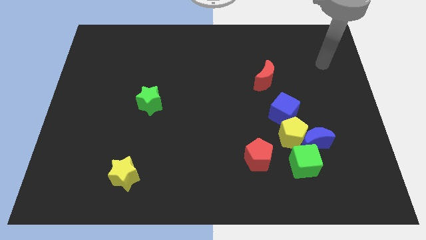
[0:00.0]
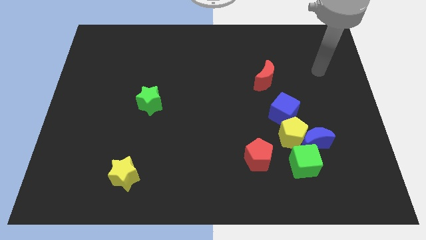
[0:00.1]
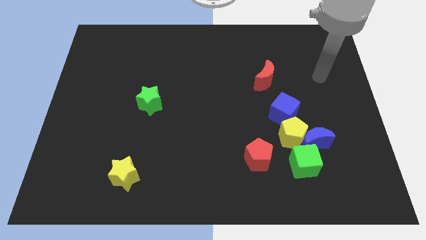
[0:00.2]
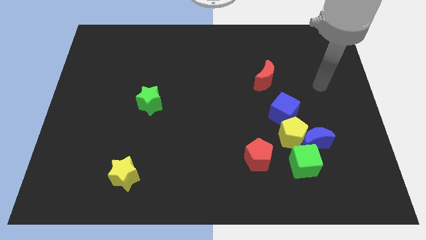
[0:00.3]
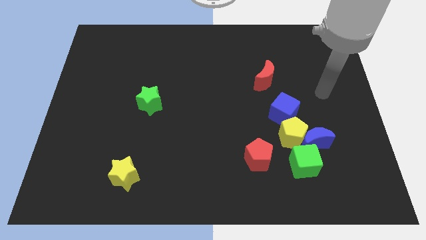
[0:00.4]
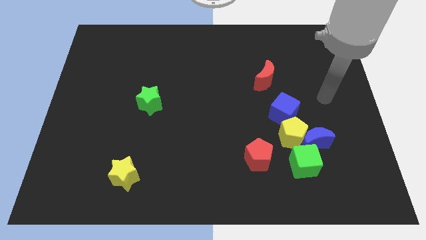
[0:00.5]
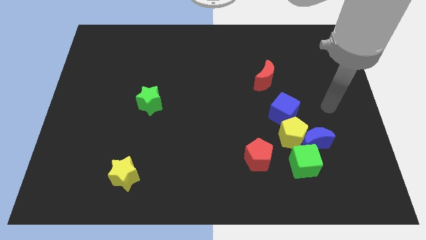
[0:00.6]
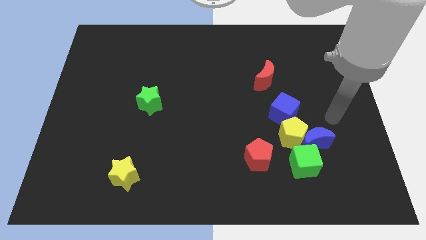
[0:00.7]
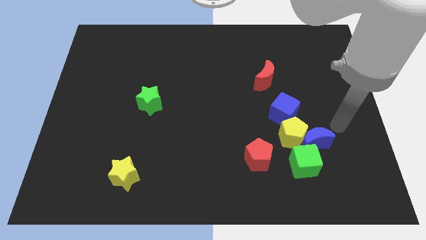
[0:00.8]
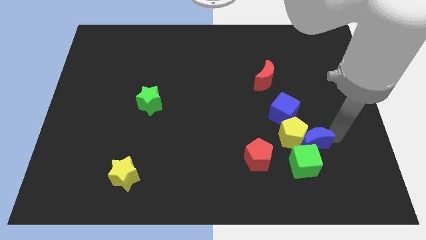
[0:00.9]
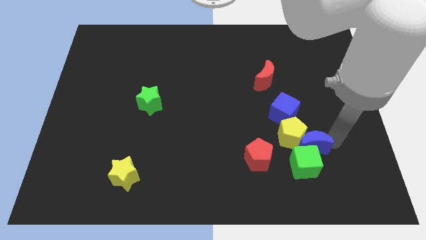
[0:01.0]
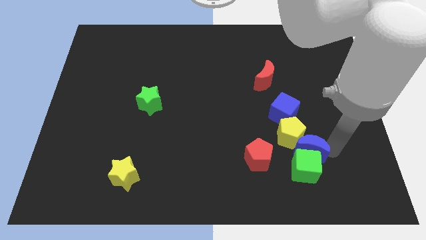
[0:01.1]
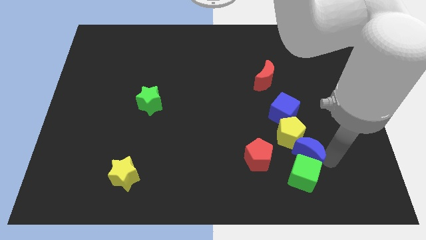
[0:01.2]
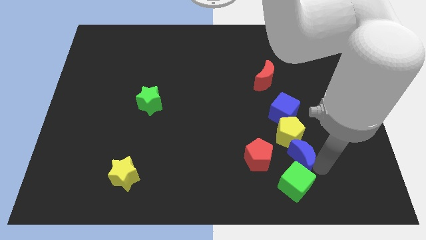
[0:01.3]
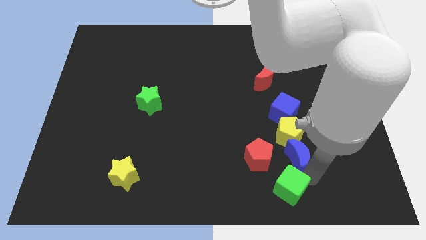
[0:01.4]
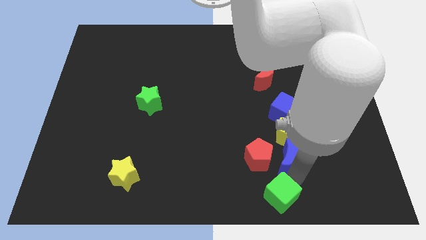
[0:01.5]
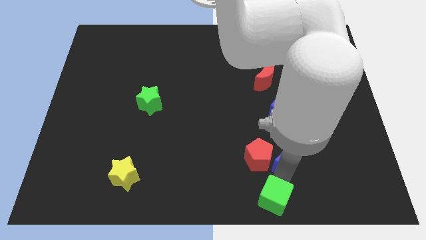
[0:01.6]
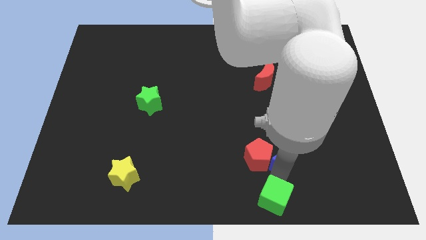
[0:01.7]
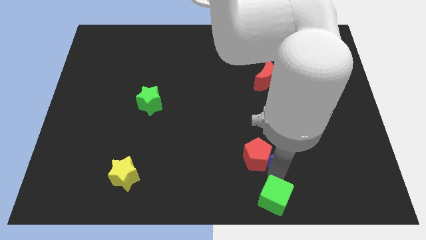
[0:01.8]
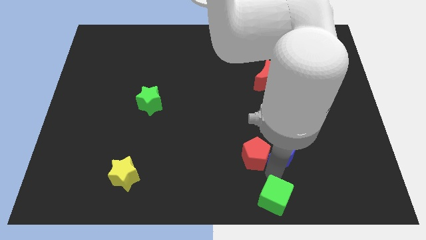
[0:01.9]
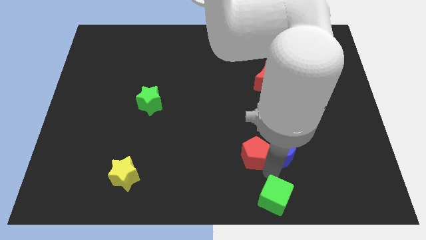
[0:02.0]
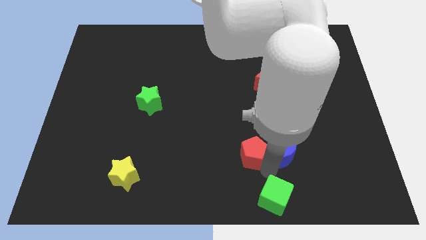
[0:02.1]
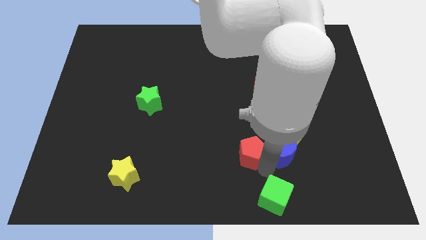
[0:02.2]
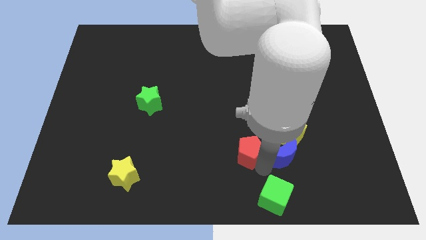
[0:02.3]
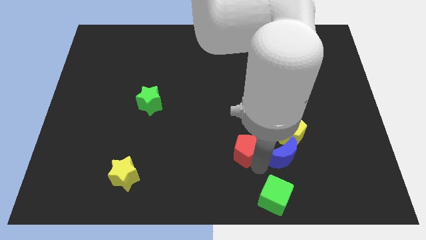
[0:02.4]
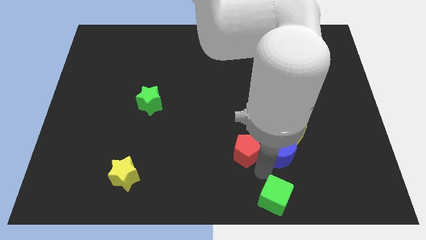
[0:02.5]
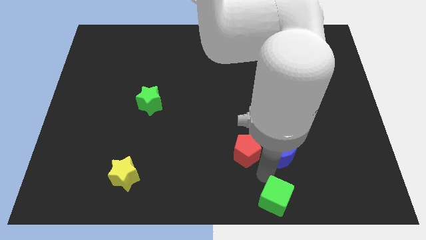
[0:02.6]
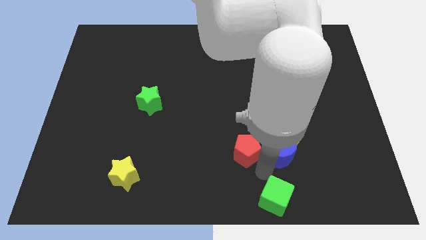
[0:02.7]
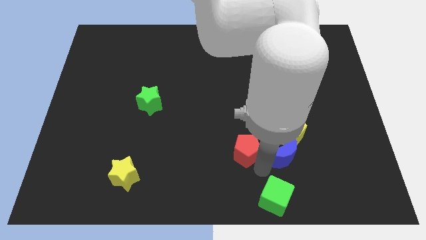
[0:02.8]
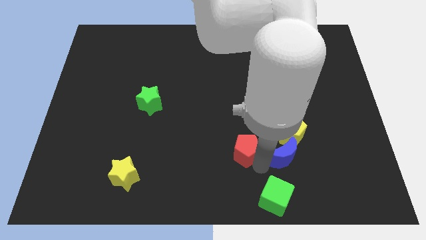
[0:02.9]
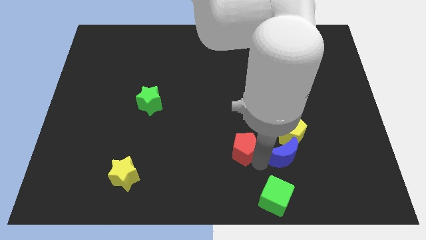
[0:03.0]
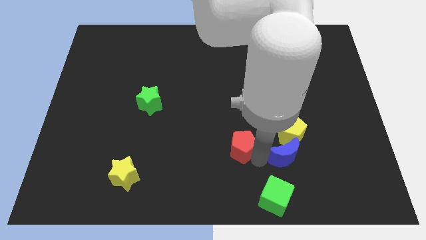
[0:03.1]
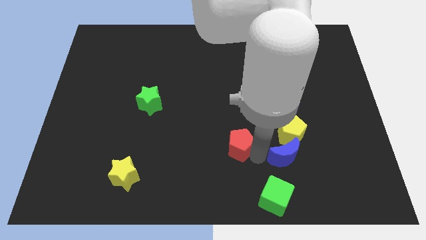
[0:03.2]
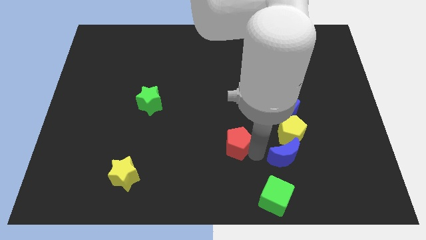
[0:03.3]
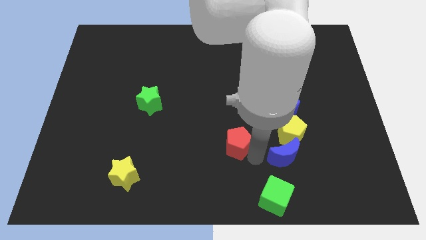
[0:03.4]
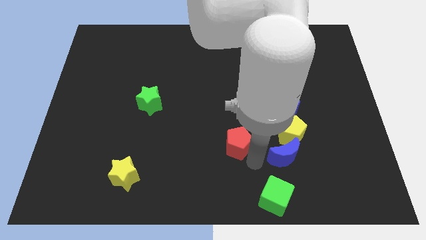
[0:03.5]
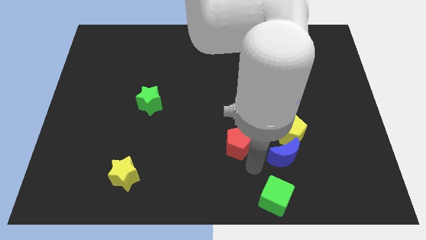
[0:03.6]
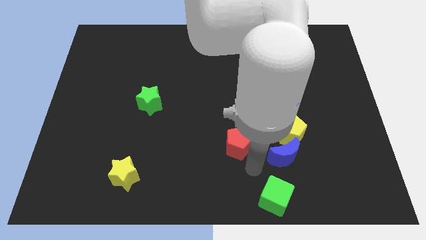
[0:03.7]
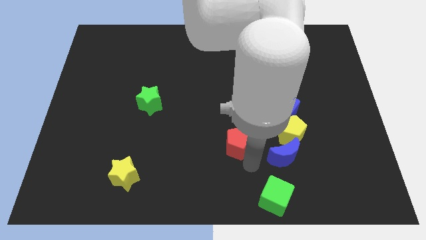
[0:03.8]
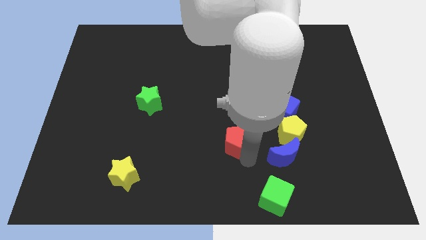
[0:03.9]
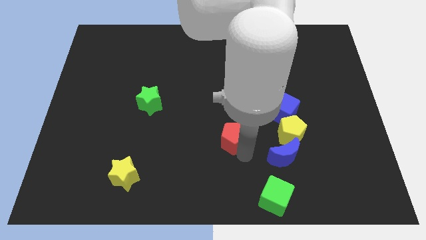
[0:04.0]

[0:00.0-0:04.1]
move the red pentagon up and left a little

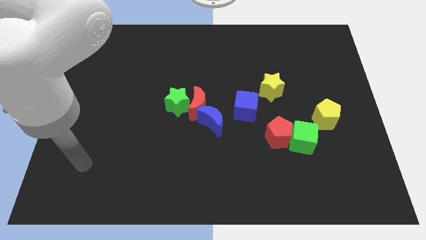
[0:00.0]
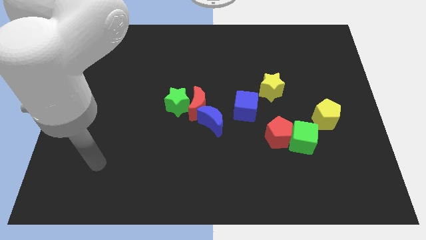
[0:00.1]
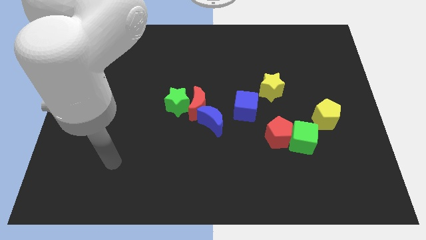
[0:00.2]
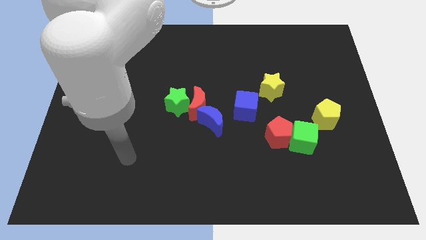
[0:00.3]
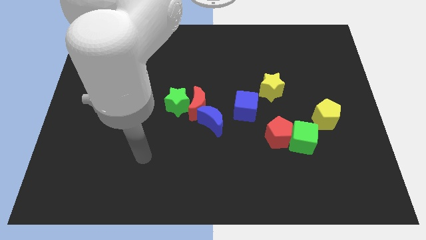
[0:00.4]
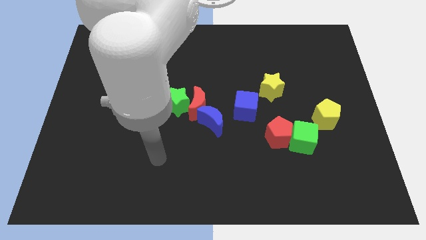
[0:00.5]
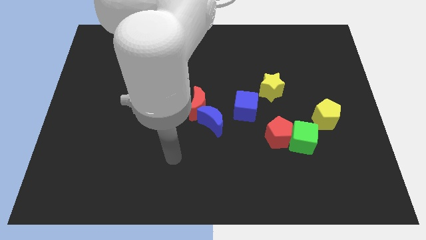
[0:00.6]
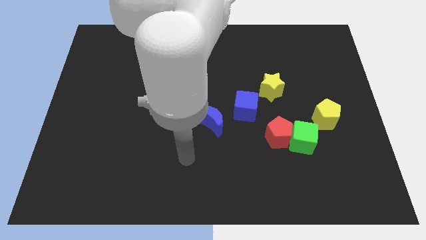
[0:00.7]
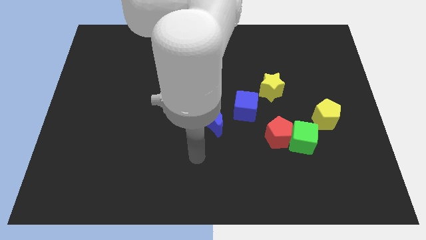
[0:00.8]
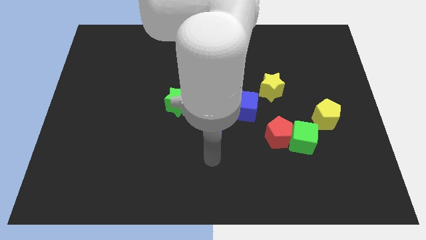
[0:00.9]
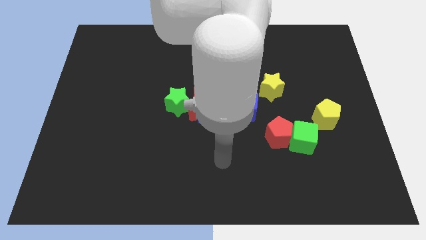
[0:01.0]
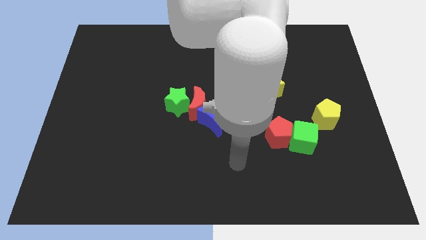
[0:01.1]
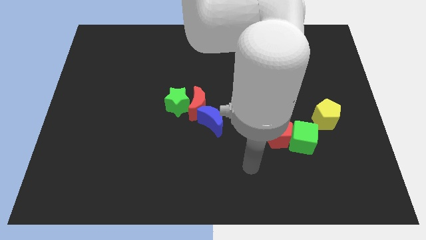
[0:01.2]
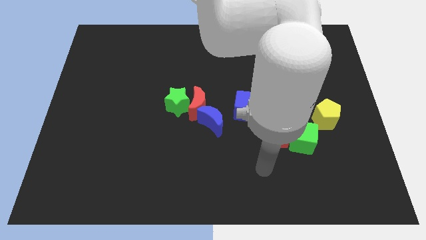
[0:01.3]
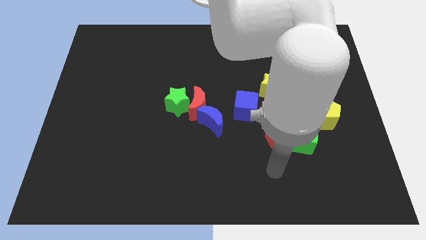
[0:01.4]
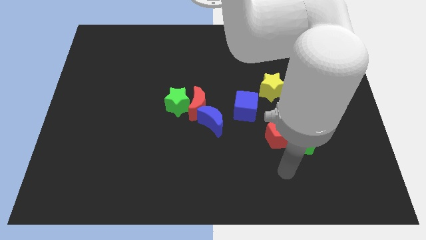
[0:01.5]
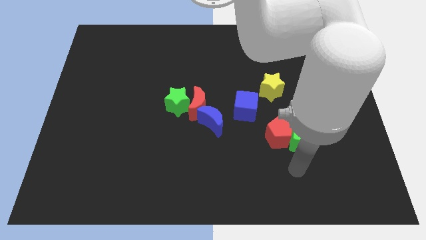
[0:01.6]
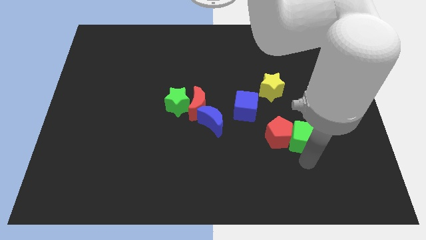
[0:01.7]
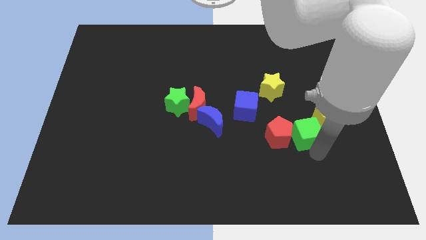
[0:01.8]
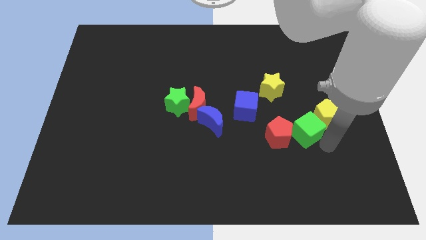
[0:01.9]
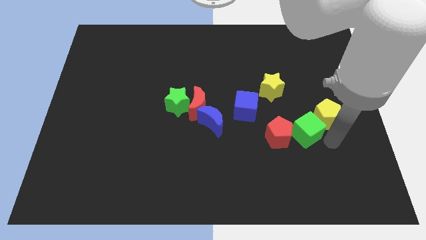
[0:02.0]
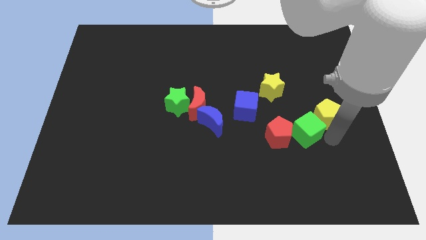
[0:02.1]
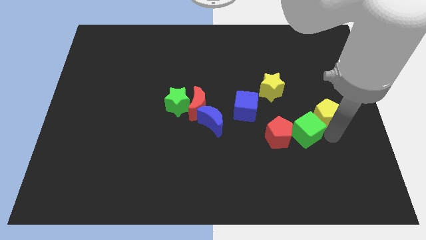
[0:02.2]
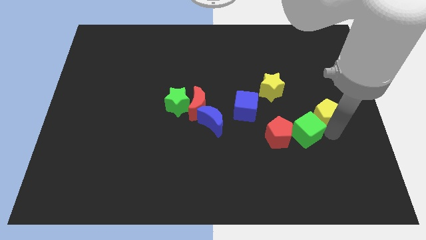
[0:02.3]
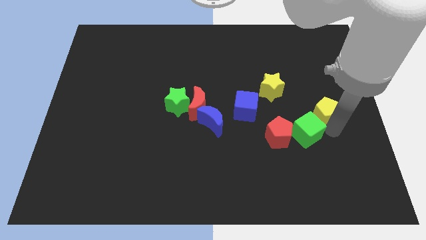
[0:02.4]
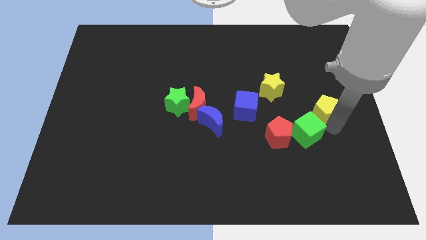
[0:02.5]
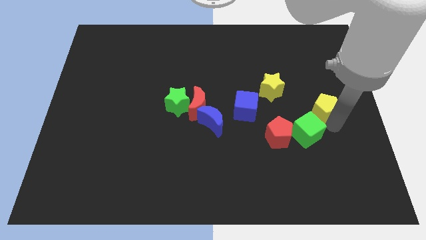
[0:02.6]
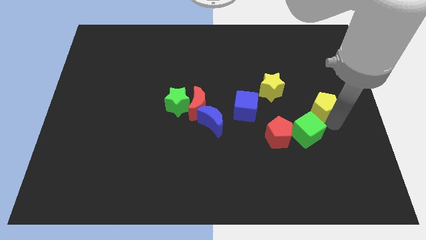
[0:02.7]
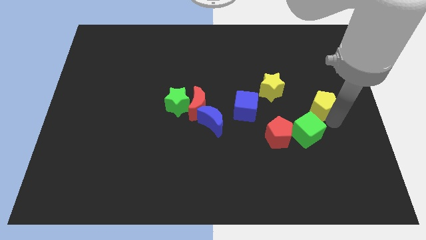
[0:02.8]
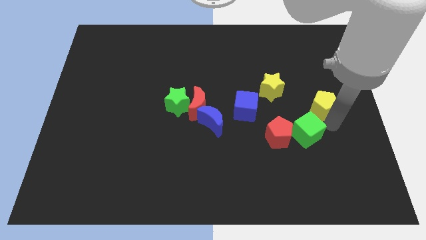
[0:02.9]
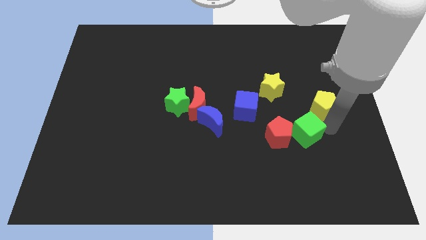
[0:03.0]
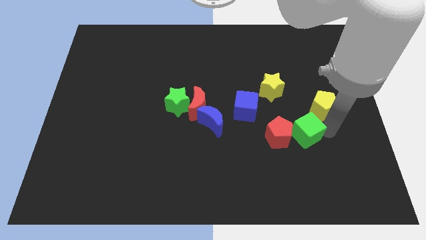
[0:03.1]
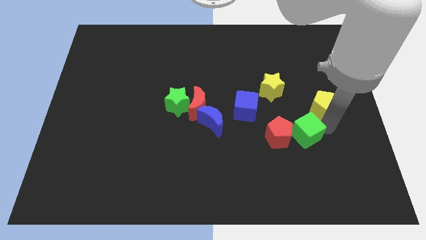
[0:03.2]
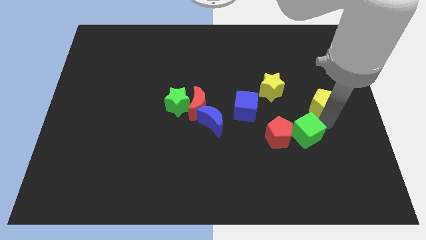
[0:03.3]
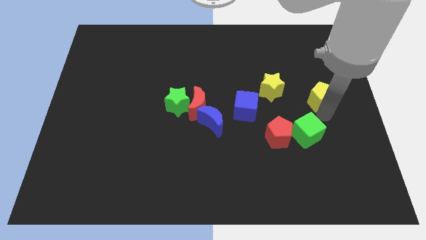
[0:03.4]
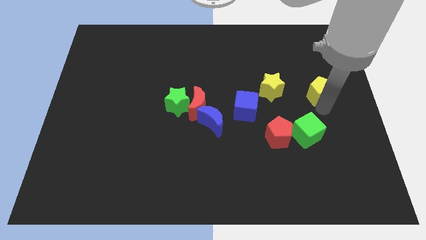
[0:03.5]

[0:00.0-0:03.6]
push the yellow pentagon a bit up

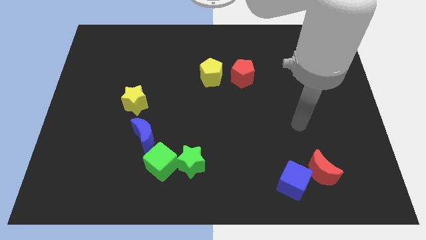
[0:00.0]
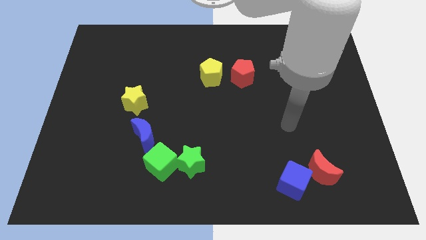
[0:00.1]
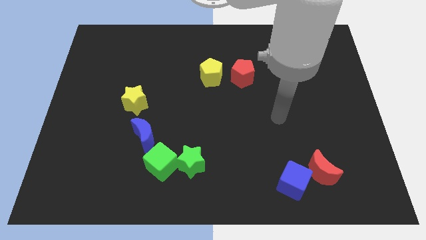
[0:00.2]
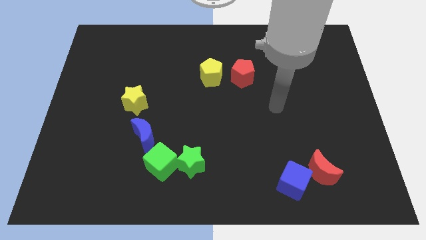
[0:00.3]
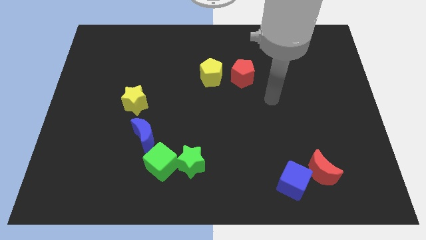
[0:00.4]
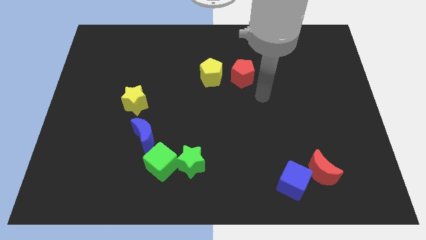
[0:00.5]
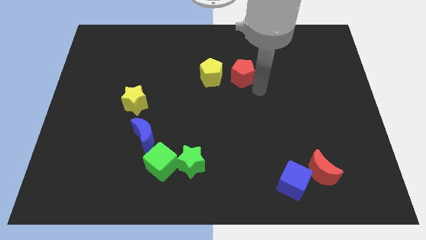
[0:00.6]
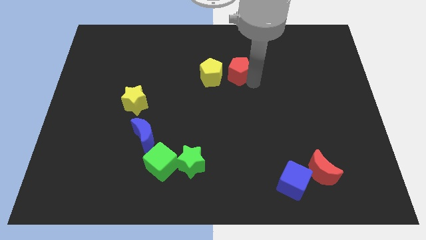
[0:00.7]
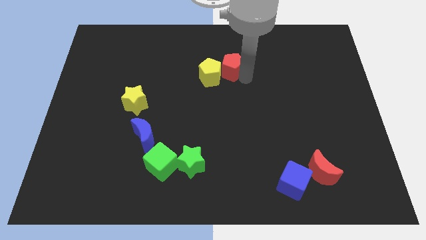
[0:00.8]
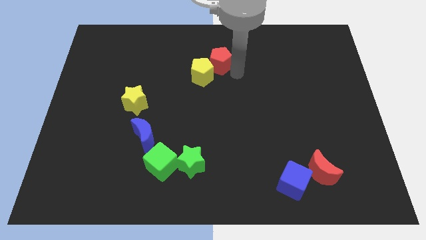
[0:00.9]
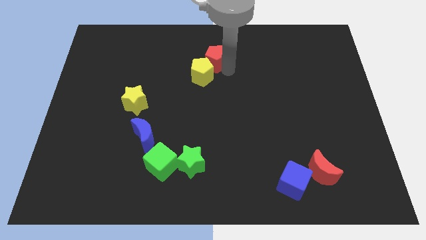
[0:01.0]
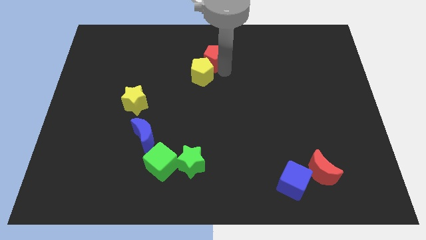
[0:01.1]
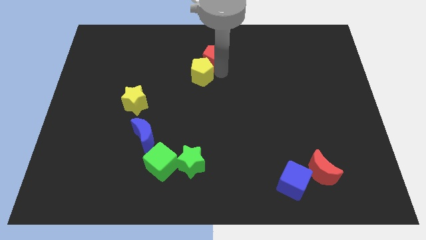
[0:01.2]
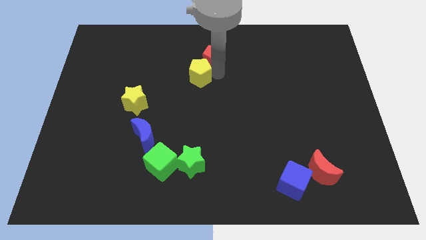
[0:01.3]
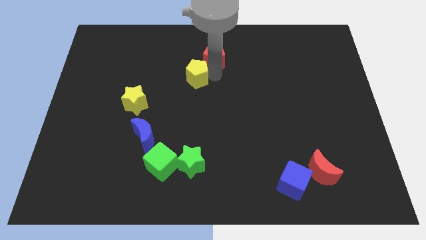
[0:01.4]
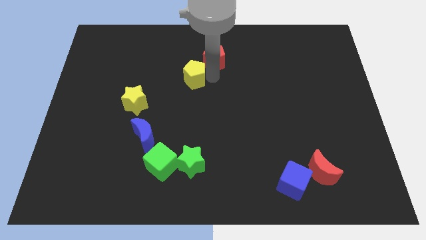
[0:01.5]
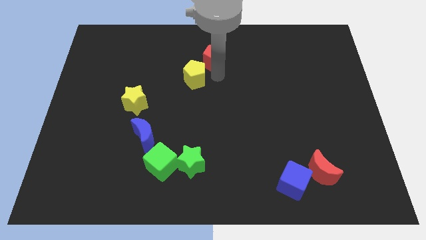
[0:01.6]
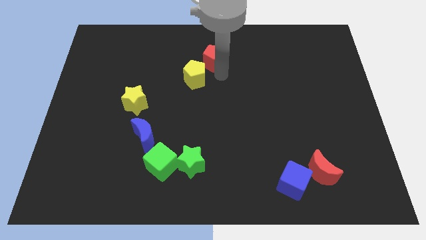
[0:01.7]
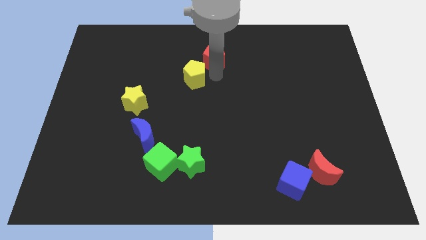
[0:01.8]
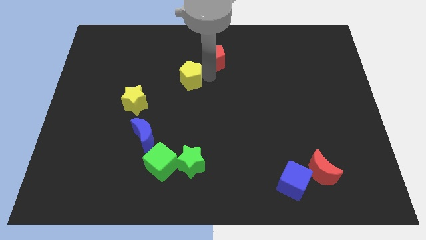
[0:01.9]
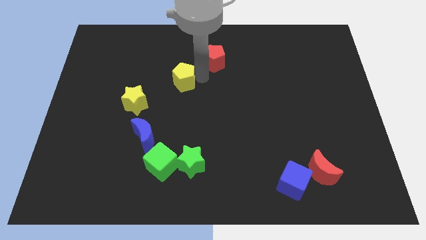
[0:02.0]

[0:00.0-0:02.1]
slightly move the yellow pentagon left
